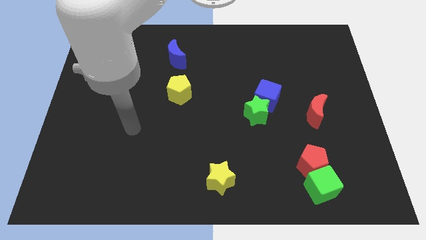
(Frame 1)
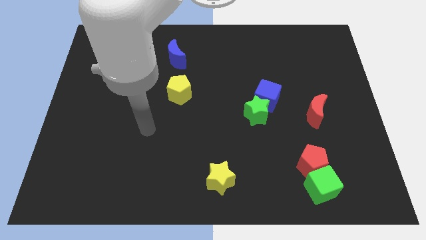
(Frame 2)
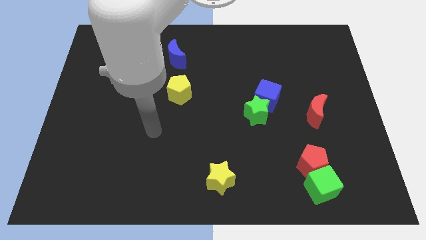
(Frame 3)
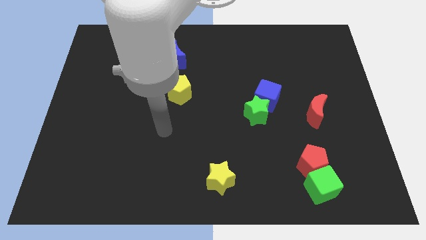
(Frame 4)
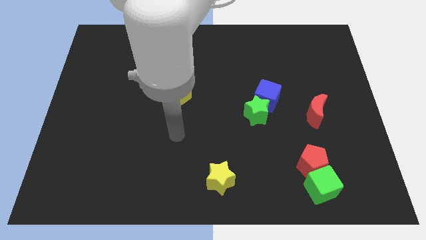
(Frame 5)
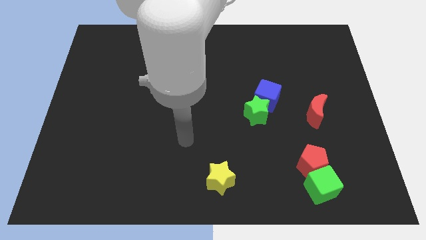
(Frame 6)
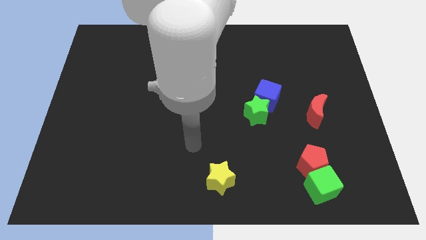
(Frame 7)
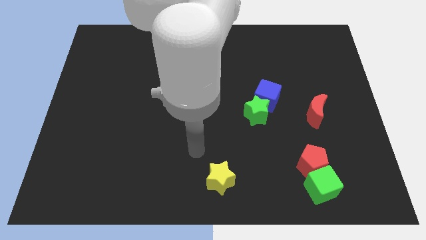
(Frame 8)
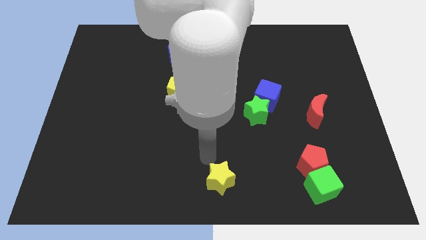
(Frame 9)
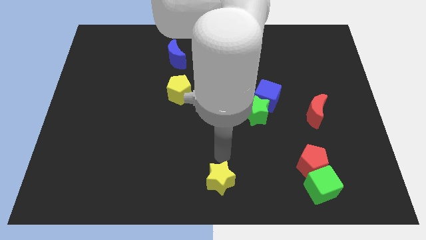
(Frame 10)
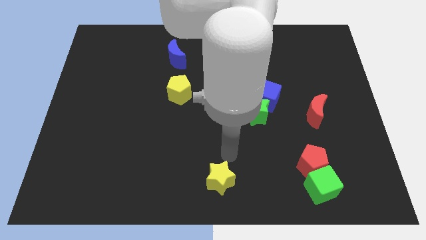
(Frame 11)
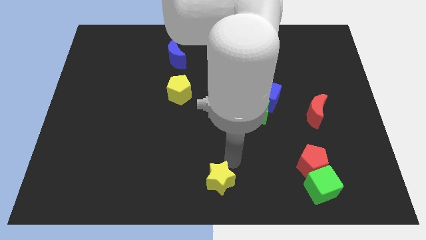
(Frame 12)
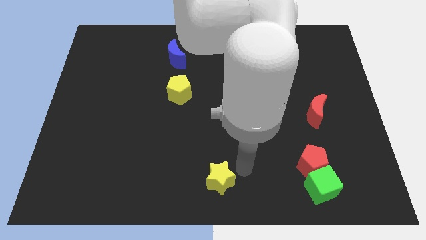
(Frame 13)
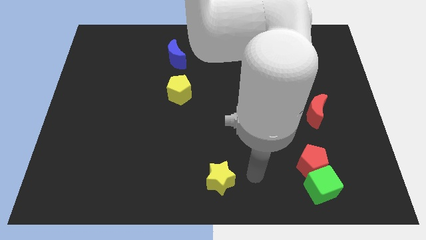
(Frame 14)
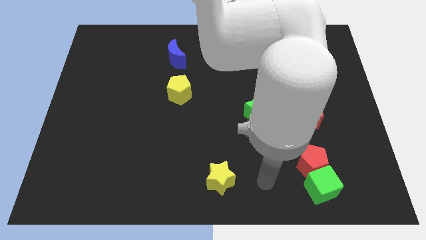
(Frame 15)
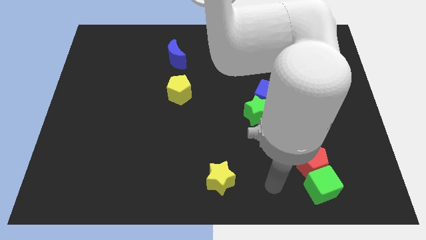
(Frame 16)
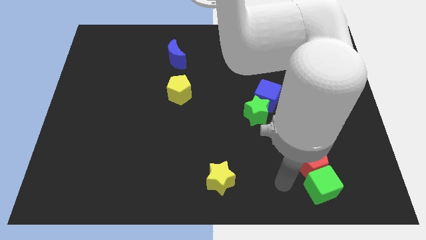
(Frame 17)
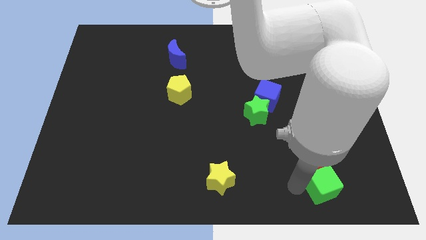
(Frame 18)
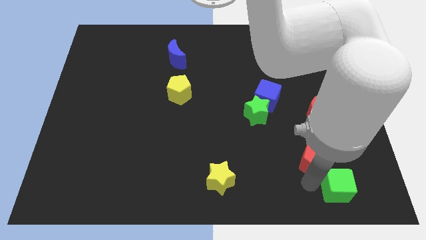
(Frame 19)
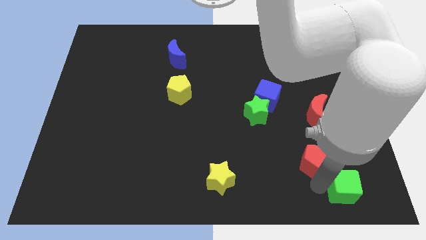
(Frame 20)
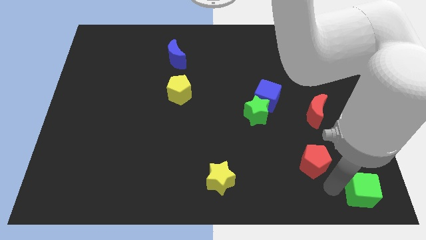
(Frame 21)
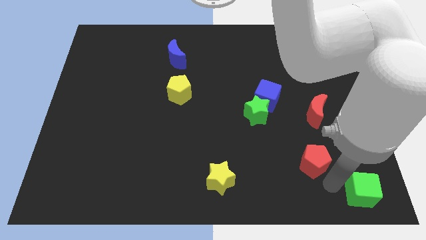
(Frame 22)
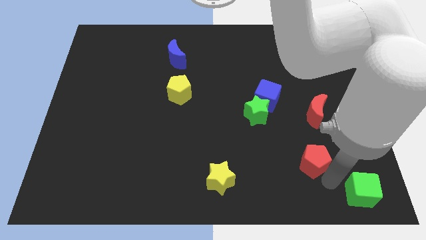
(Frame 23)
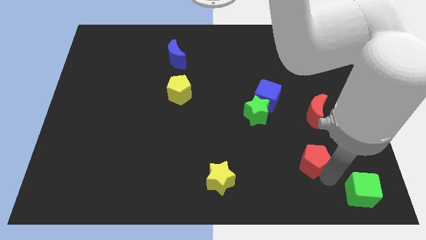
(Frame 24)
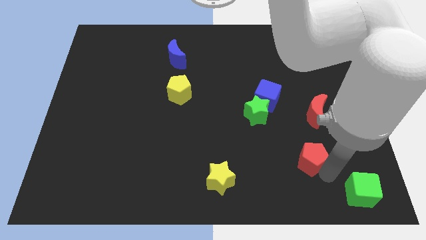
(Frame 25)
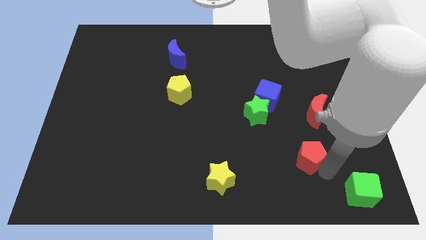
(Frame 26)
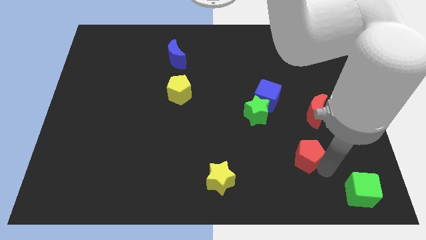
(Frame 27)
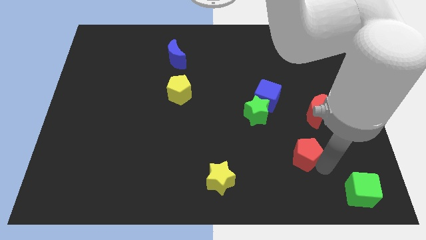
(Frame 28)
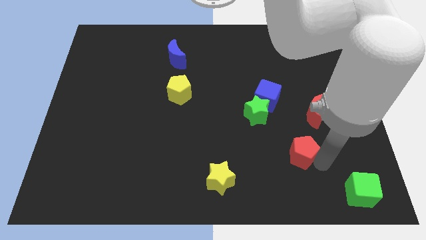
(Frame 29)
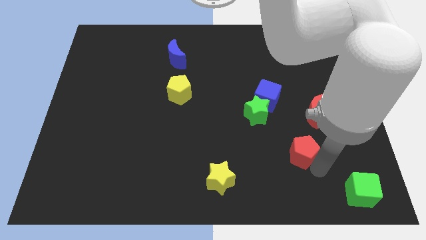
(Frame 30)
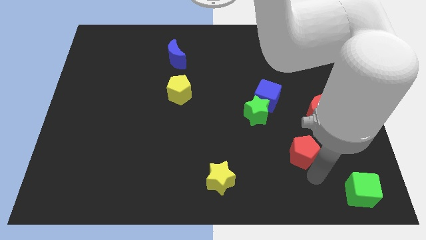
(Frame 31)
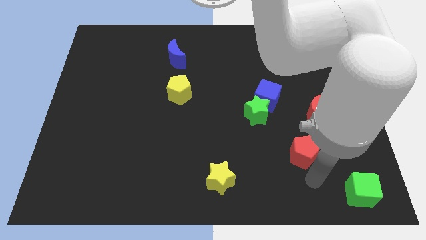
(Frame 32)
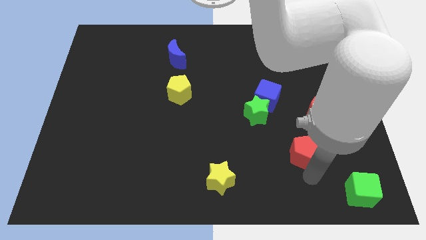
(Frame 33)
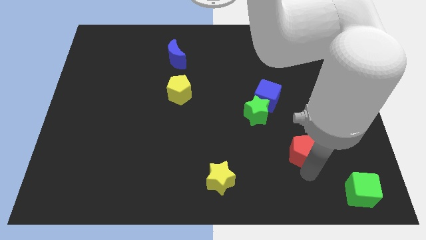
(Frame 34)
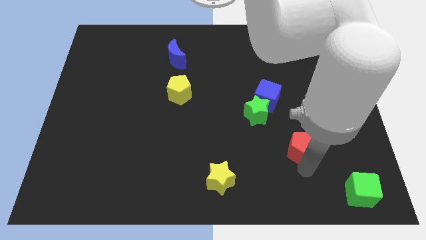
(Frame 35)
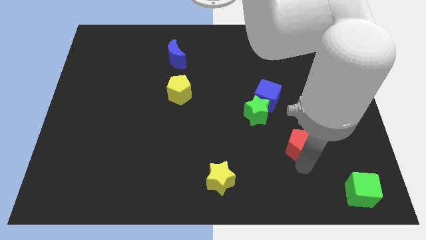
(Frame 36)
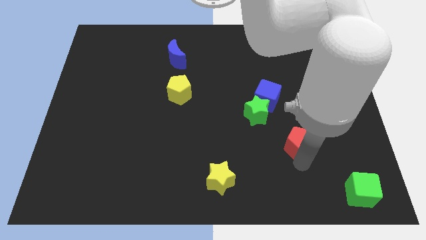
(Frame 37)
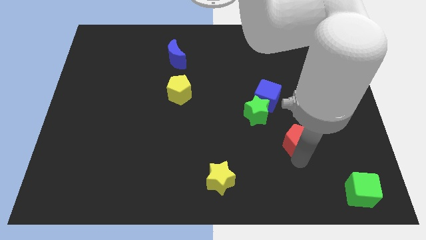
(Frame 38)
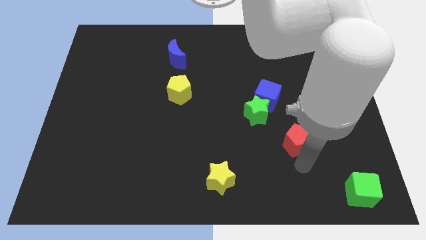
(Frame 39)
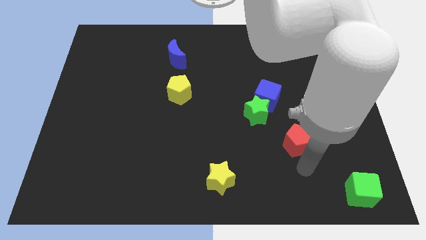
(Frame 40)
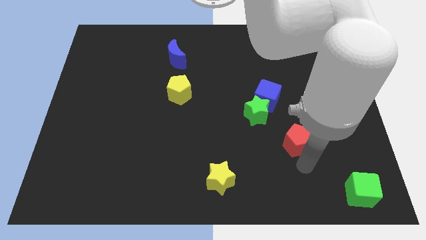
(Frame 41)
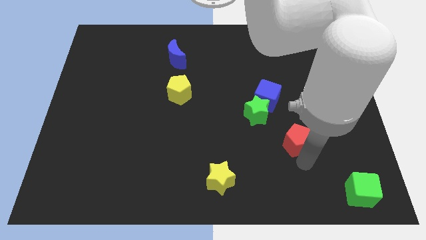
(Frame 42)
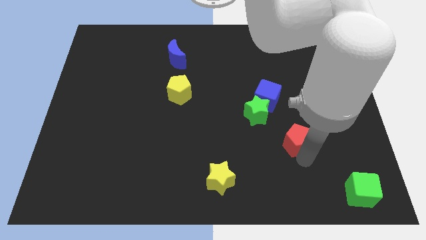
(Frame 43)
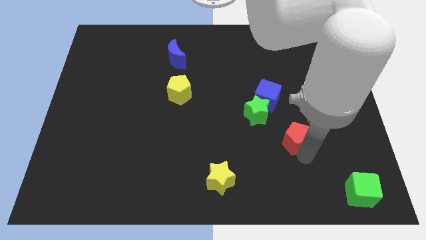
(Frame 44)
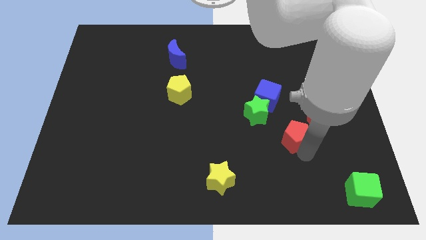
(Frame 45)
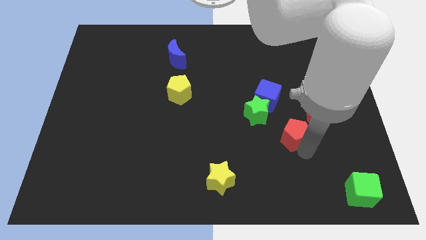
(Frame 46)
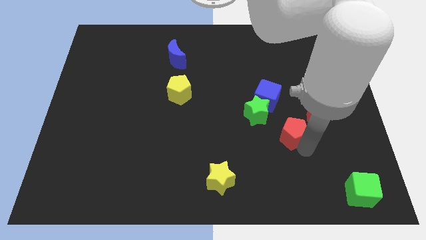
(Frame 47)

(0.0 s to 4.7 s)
push the red pentagon a little bit upwards

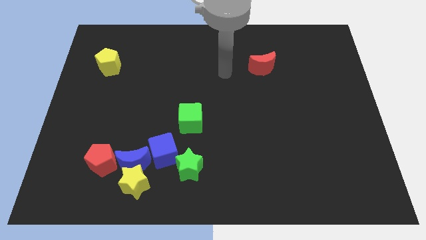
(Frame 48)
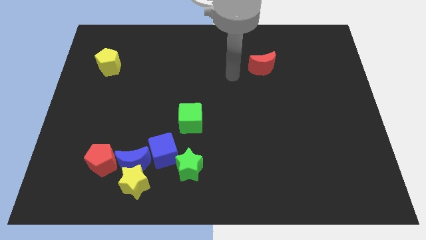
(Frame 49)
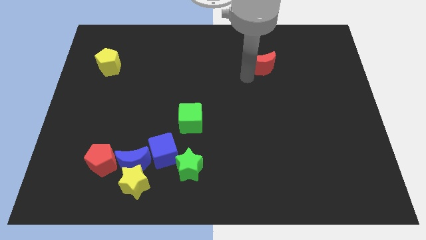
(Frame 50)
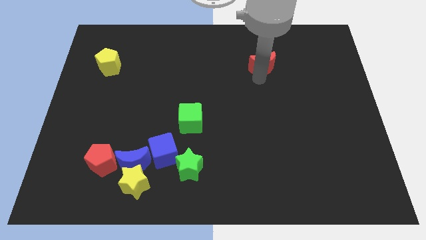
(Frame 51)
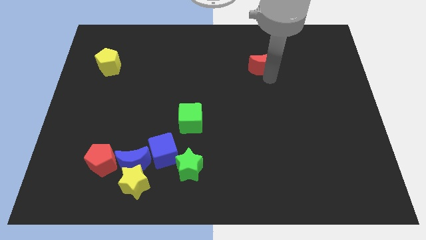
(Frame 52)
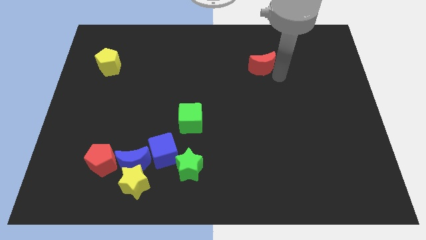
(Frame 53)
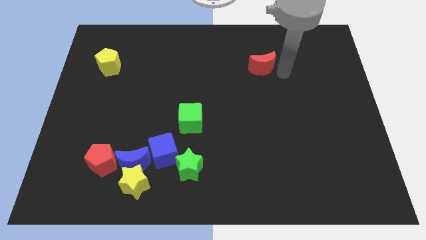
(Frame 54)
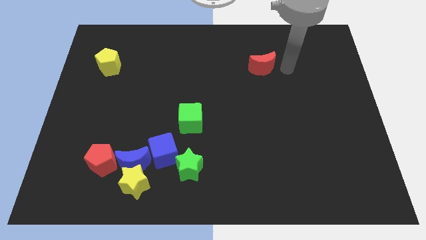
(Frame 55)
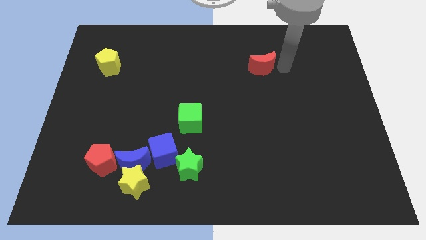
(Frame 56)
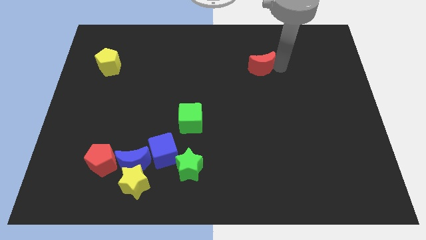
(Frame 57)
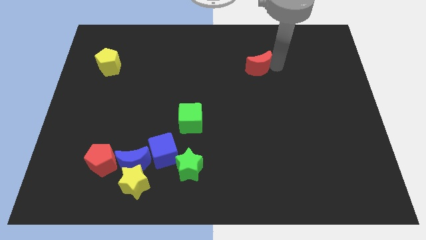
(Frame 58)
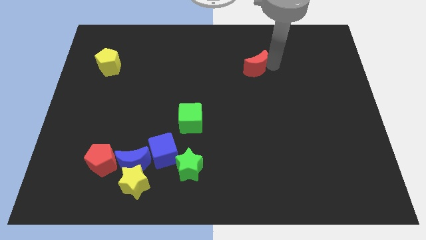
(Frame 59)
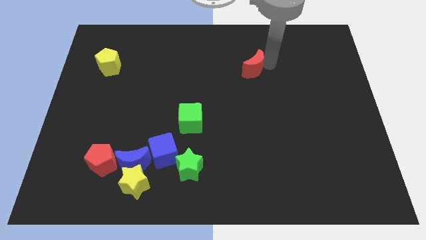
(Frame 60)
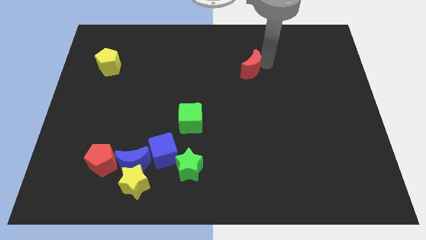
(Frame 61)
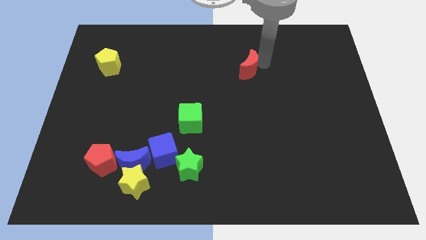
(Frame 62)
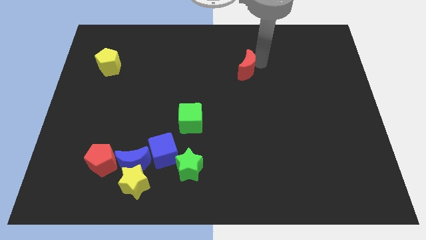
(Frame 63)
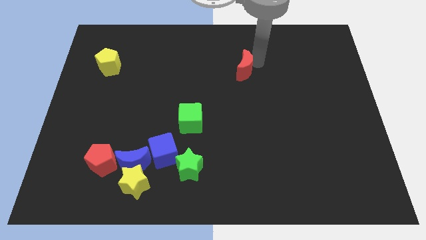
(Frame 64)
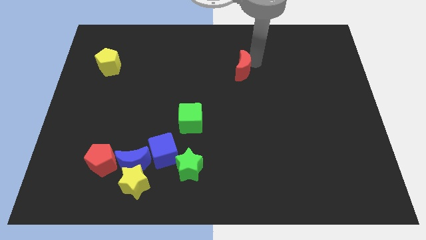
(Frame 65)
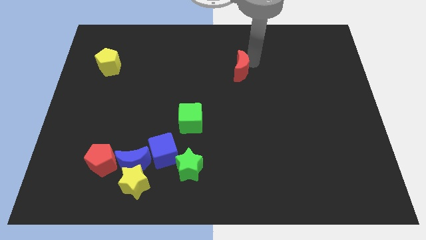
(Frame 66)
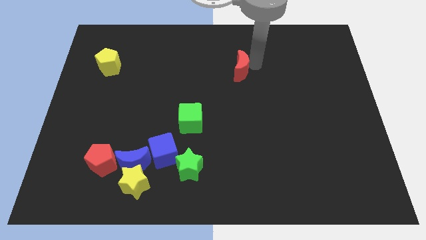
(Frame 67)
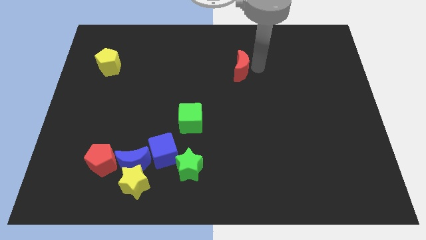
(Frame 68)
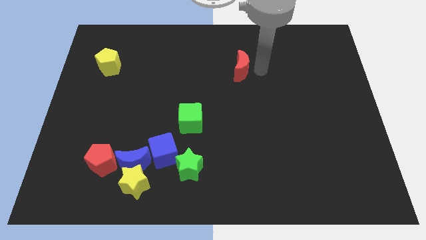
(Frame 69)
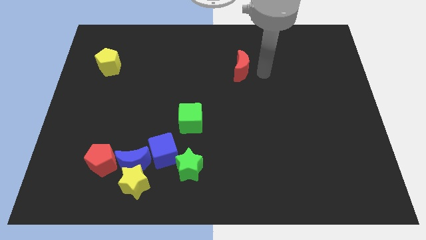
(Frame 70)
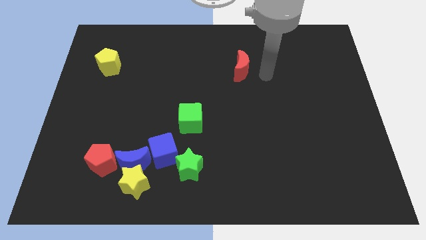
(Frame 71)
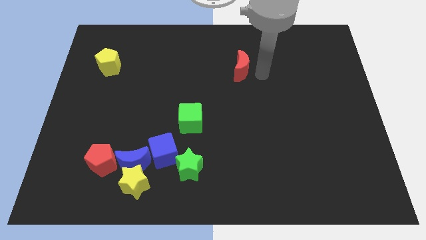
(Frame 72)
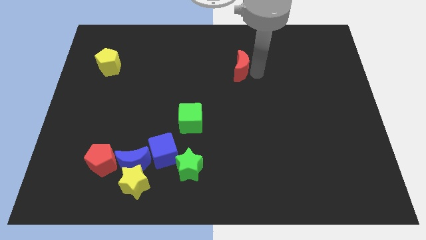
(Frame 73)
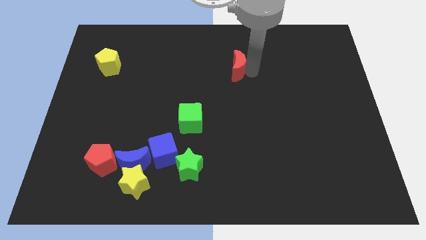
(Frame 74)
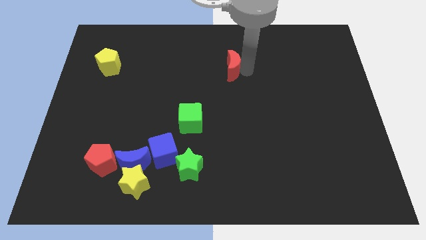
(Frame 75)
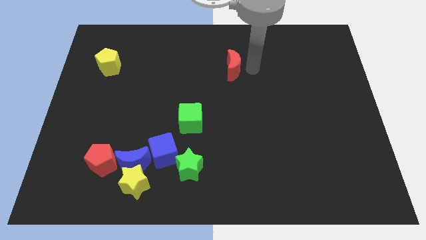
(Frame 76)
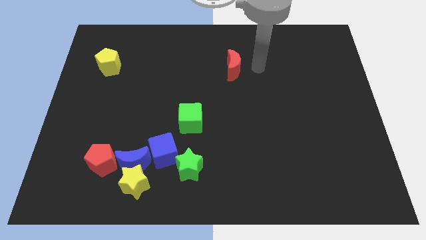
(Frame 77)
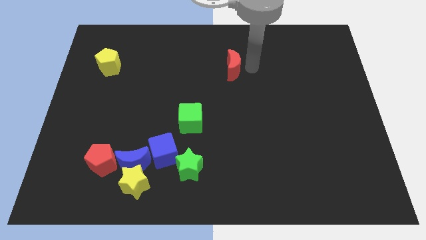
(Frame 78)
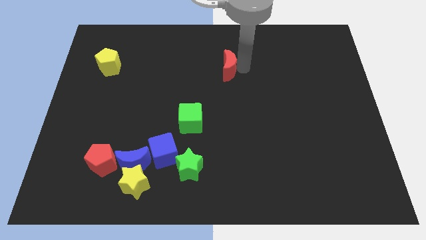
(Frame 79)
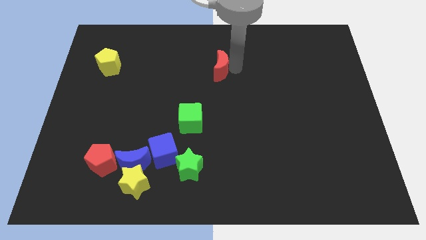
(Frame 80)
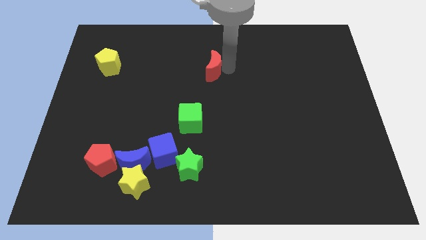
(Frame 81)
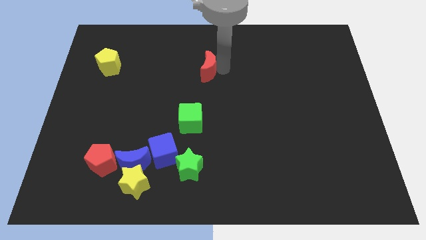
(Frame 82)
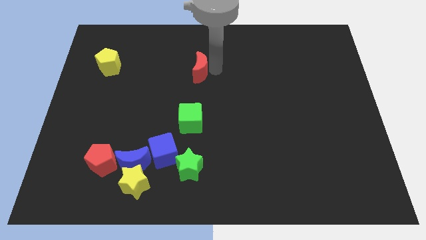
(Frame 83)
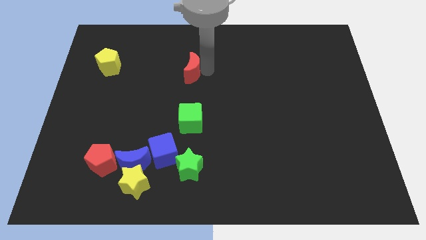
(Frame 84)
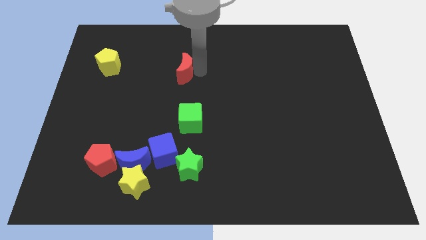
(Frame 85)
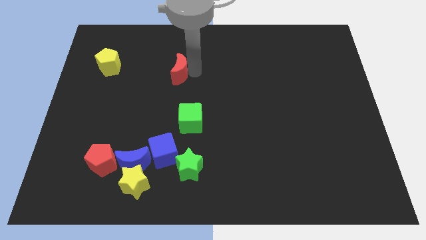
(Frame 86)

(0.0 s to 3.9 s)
push the red moon to the left
